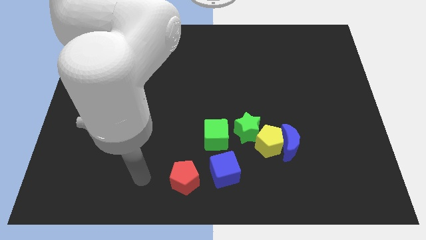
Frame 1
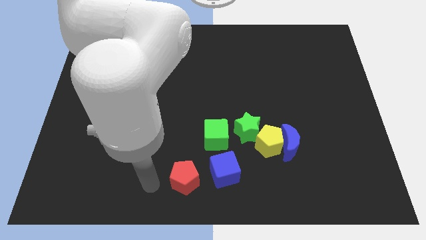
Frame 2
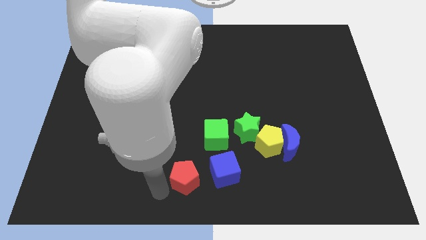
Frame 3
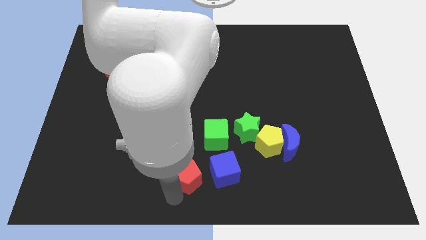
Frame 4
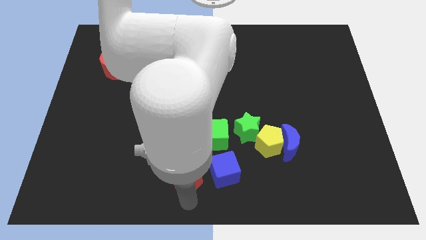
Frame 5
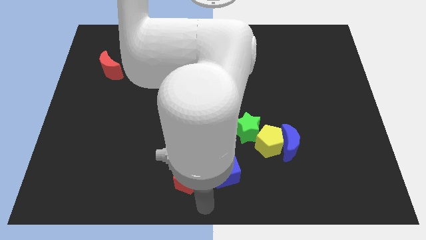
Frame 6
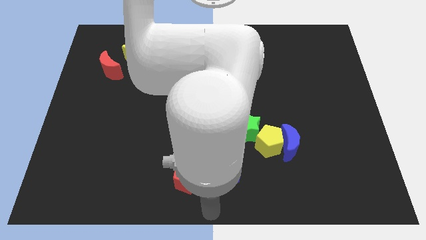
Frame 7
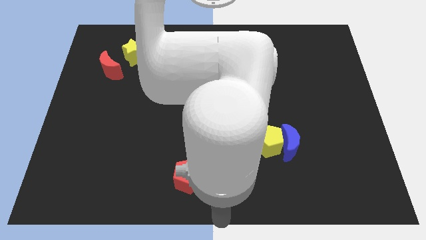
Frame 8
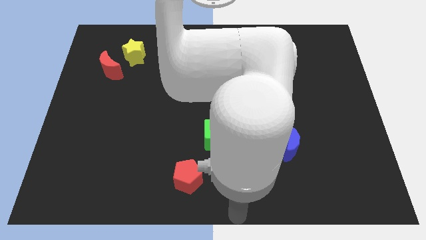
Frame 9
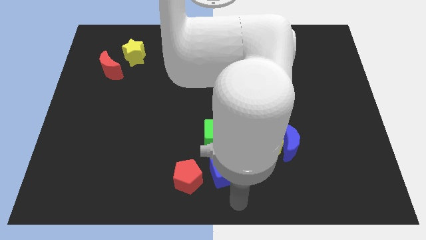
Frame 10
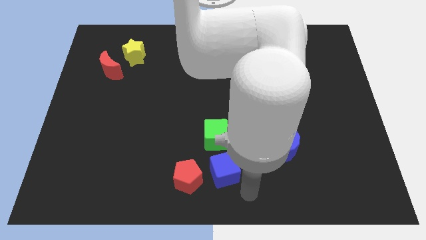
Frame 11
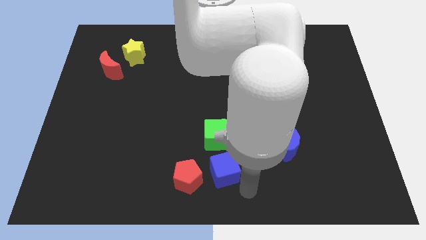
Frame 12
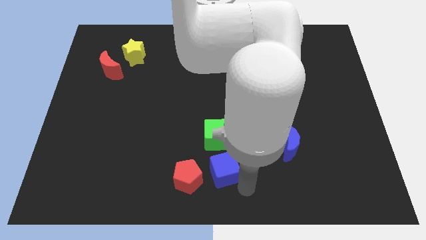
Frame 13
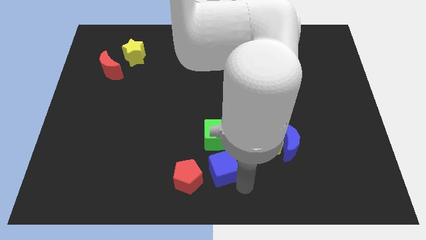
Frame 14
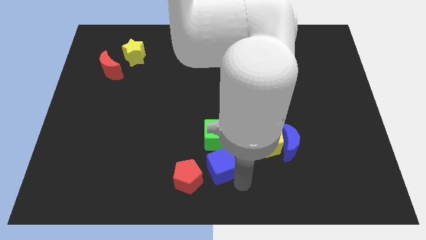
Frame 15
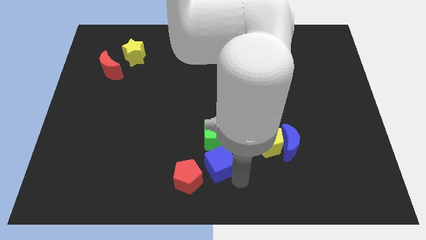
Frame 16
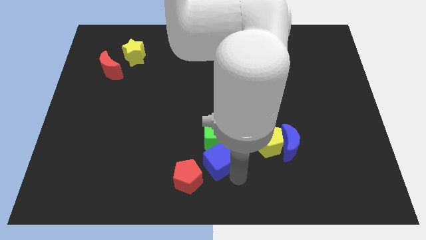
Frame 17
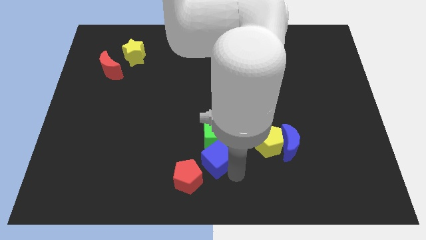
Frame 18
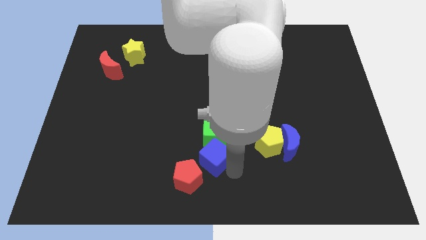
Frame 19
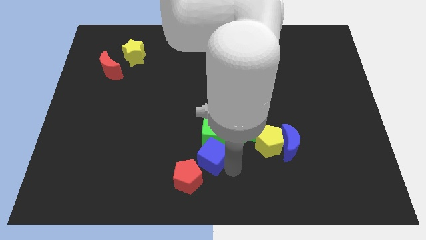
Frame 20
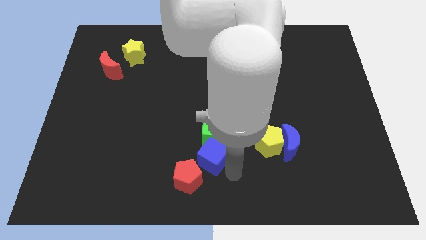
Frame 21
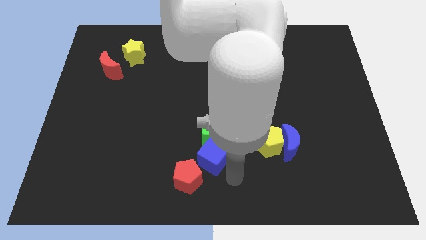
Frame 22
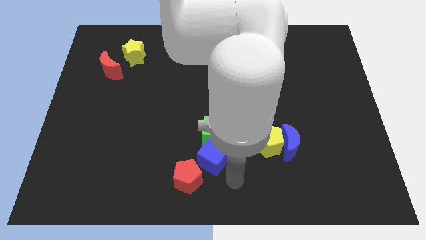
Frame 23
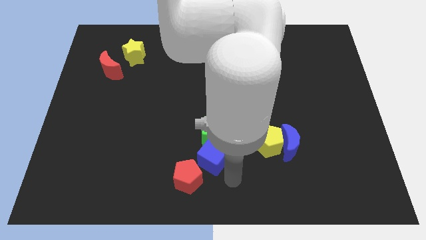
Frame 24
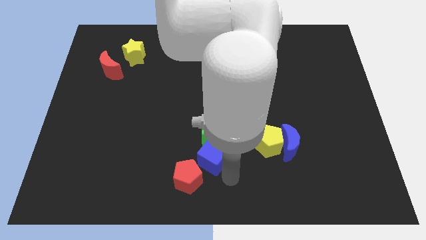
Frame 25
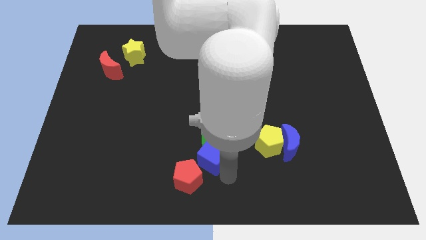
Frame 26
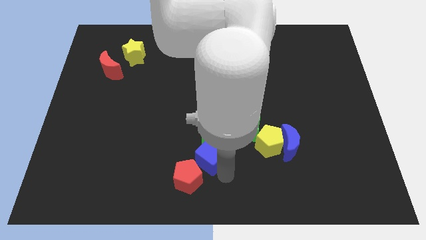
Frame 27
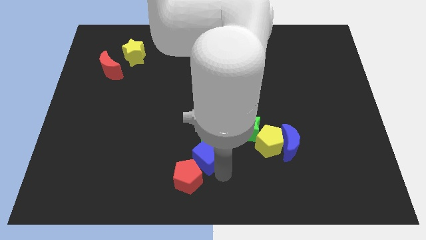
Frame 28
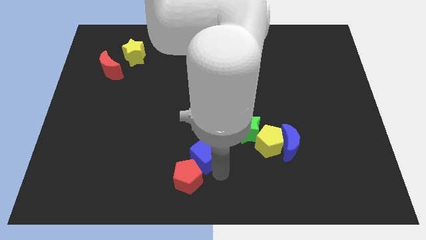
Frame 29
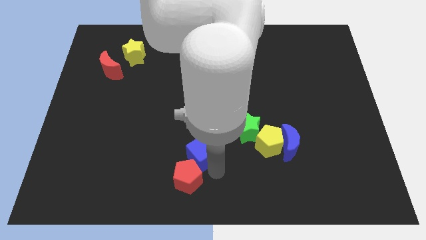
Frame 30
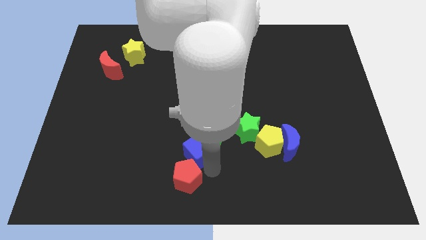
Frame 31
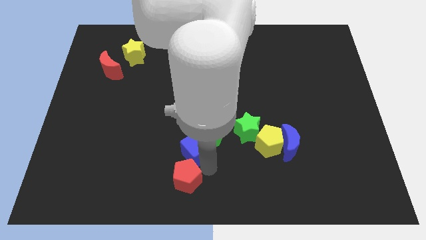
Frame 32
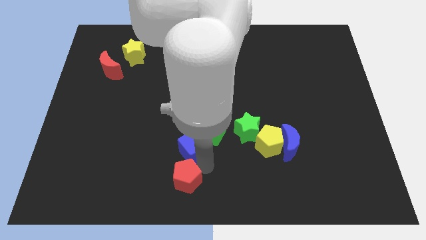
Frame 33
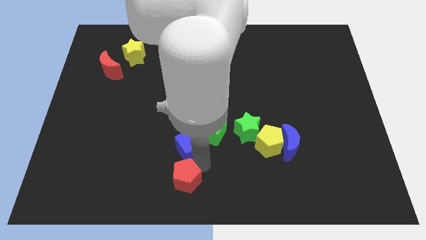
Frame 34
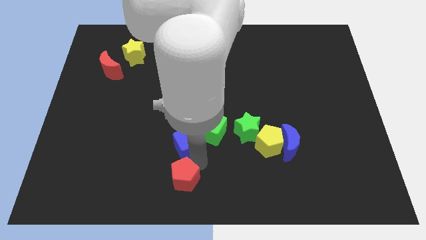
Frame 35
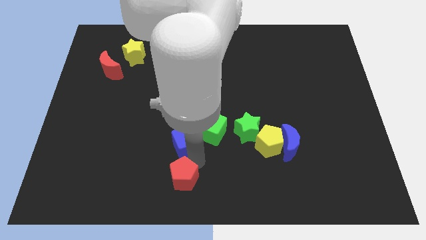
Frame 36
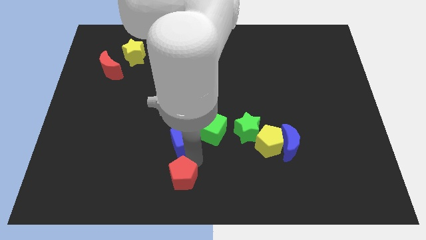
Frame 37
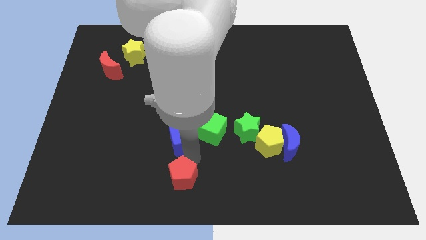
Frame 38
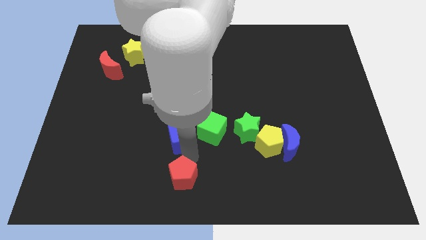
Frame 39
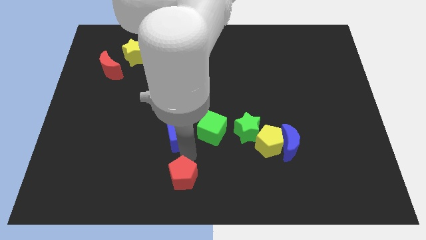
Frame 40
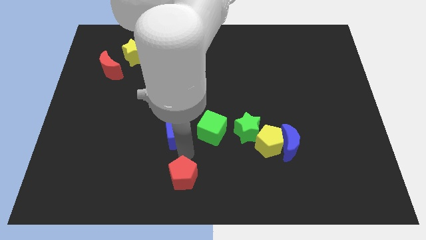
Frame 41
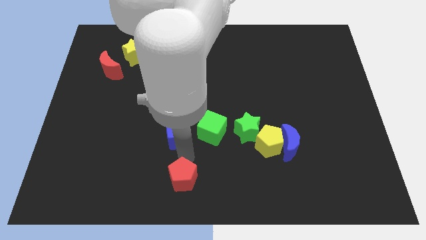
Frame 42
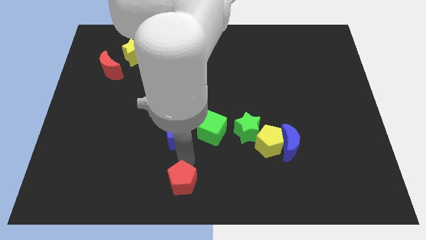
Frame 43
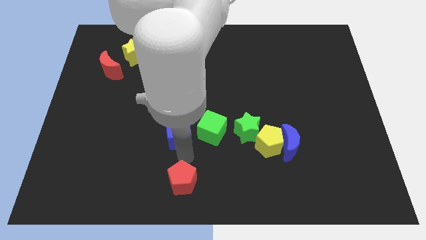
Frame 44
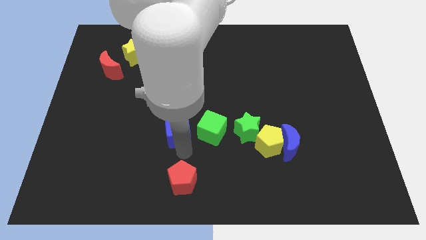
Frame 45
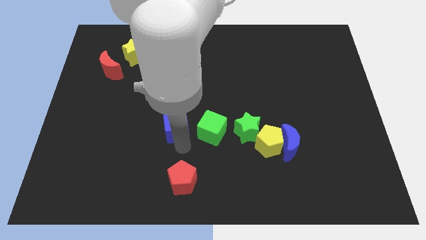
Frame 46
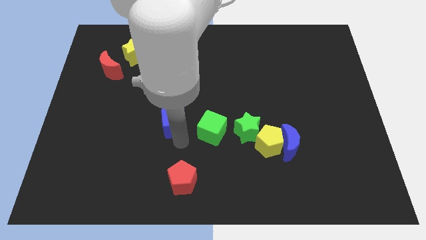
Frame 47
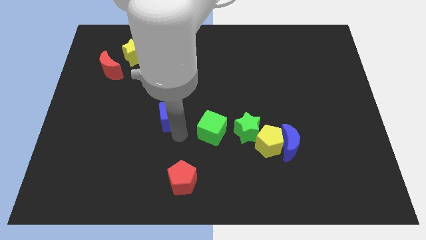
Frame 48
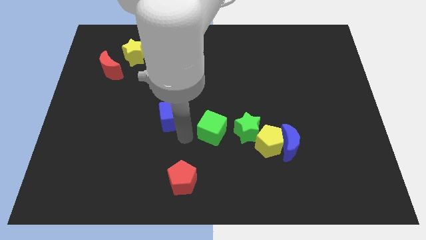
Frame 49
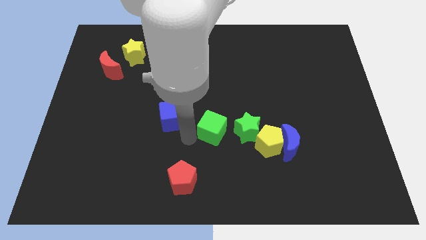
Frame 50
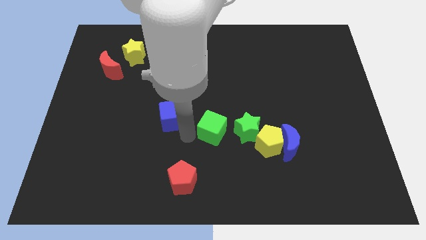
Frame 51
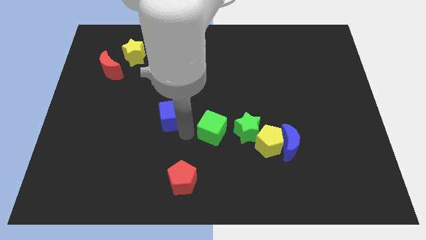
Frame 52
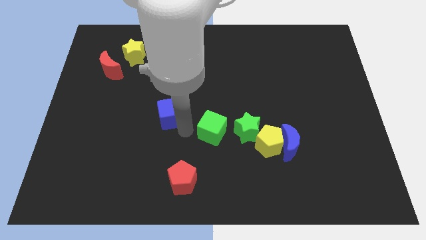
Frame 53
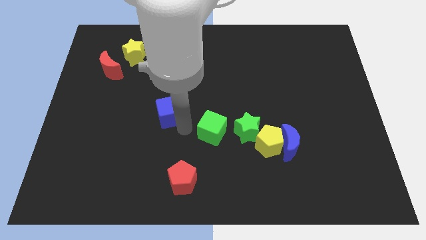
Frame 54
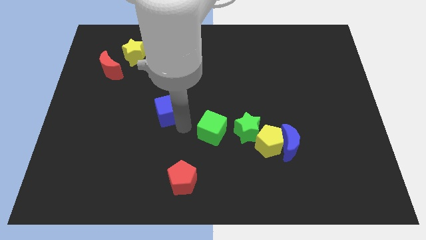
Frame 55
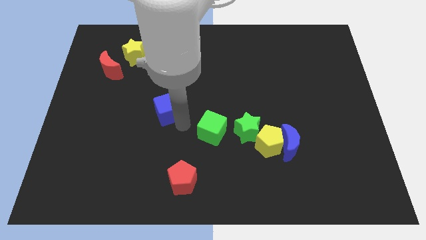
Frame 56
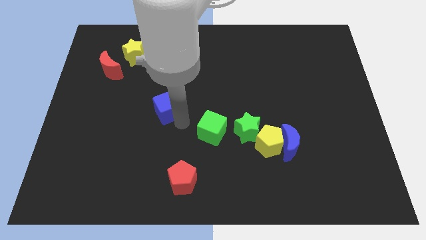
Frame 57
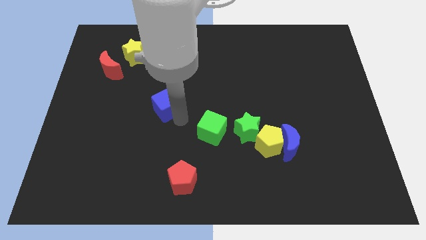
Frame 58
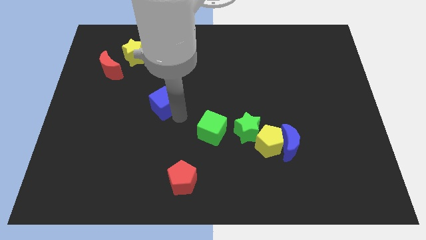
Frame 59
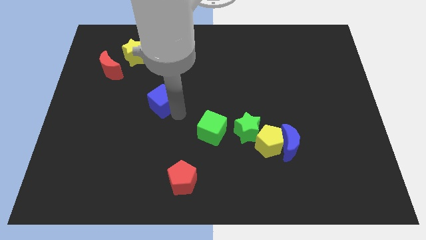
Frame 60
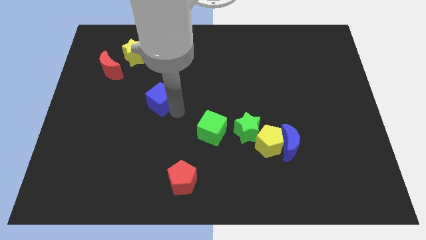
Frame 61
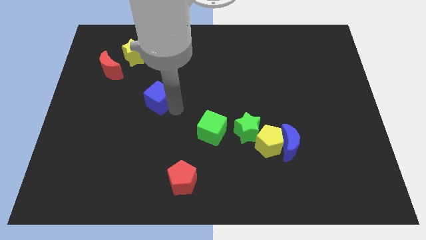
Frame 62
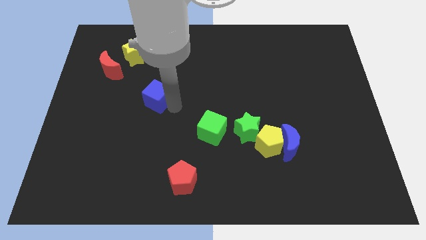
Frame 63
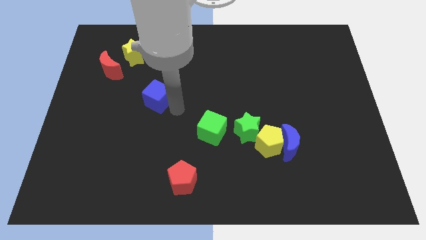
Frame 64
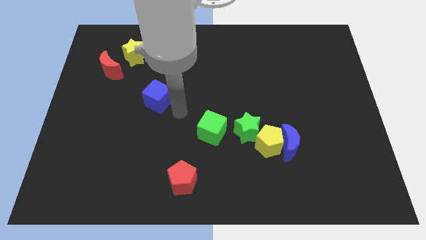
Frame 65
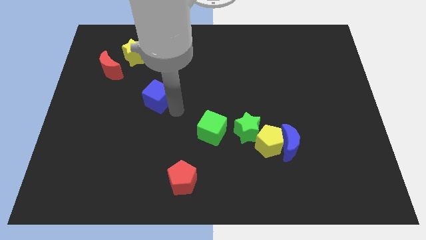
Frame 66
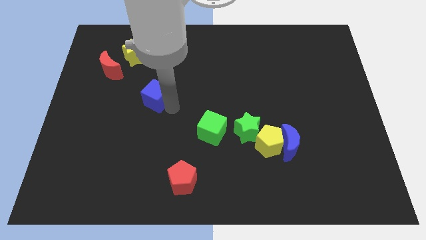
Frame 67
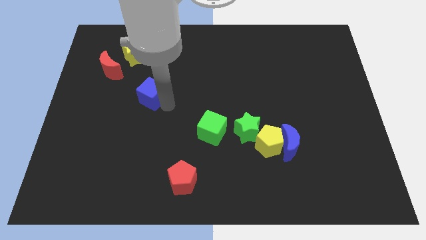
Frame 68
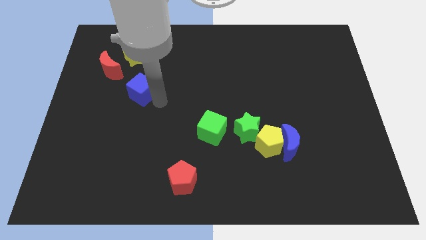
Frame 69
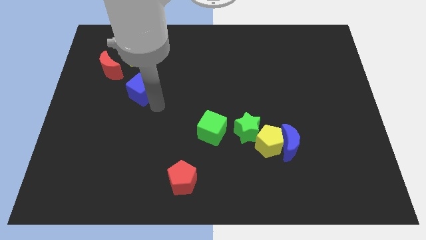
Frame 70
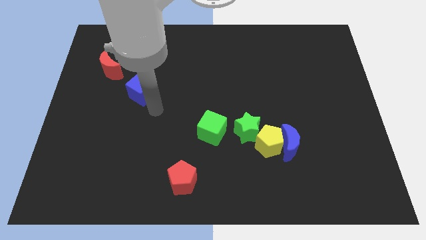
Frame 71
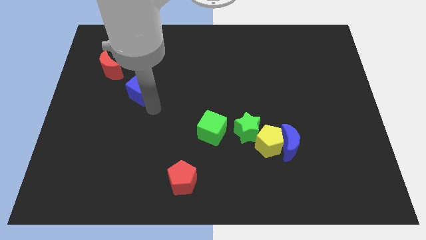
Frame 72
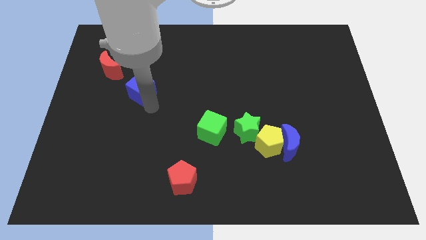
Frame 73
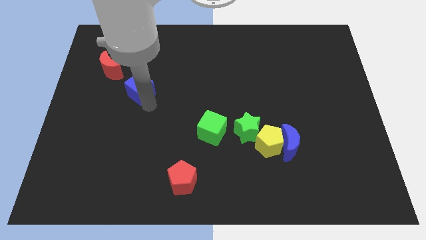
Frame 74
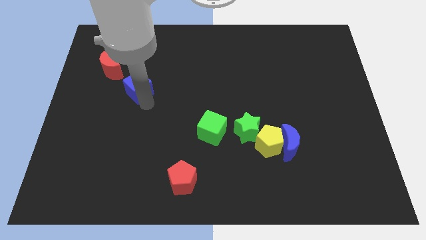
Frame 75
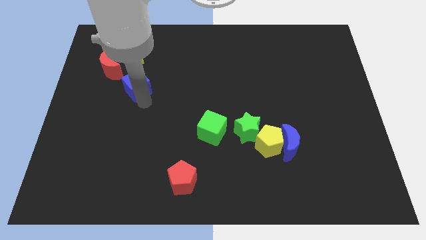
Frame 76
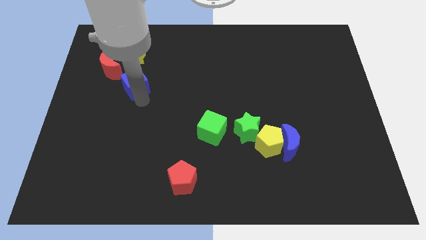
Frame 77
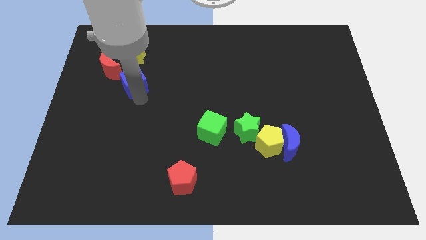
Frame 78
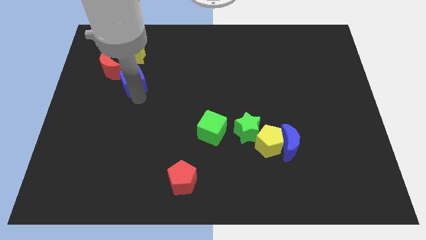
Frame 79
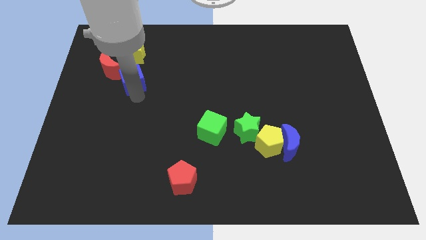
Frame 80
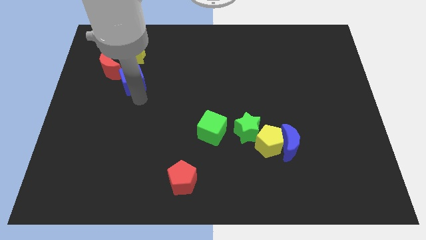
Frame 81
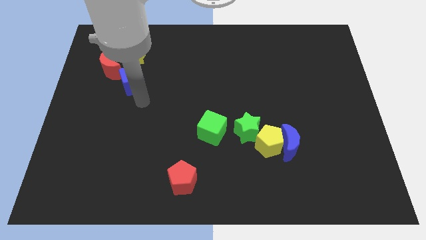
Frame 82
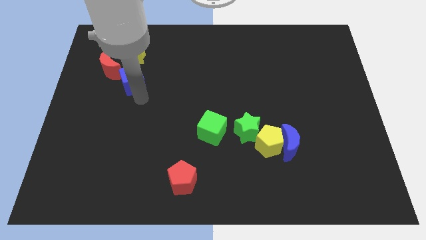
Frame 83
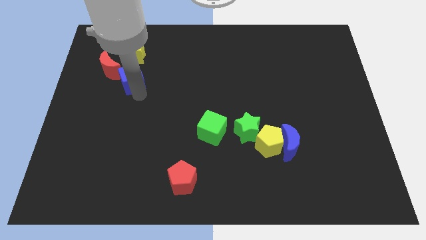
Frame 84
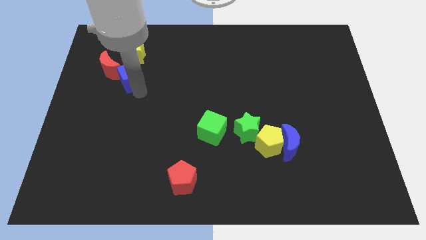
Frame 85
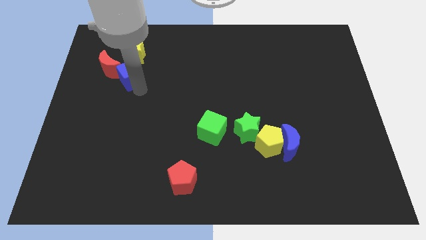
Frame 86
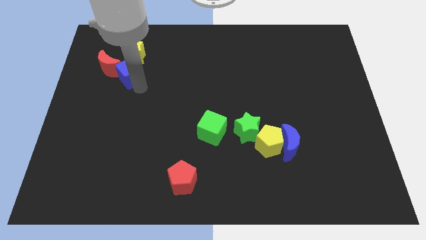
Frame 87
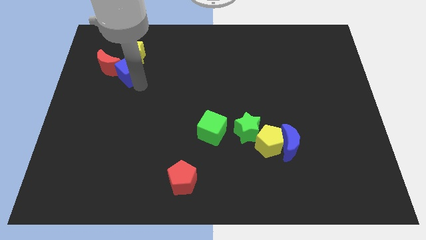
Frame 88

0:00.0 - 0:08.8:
slide the blue cube next to the red moon
